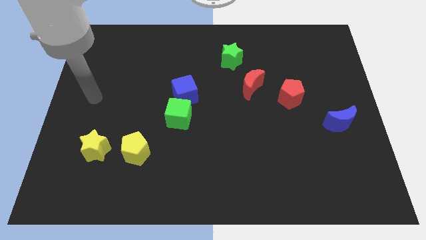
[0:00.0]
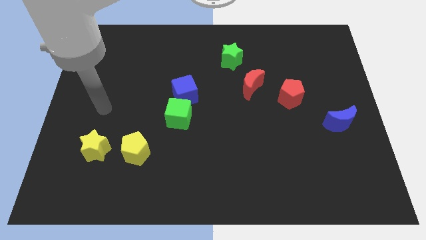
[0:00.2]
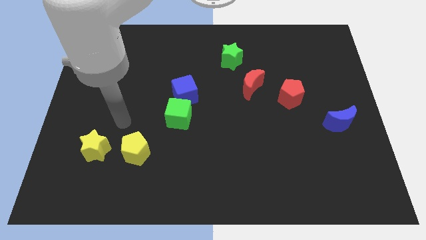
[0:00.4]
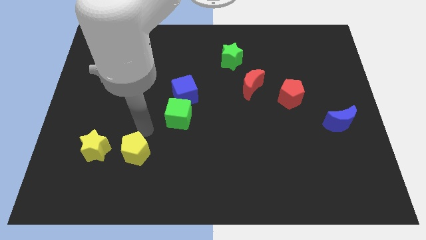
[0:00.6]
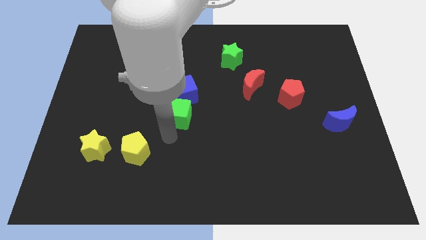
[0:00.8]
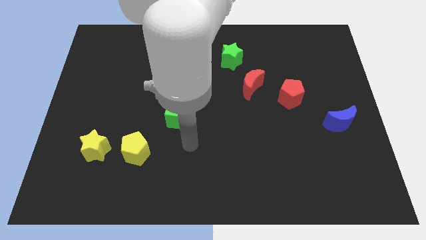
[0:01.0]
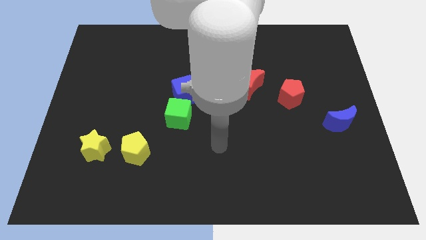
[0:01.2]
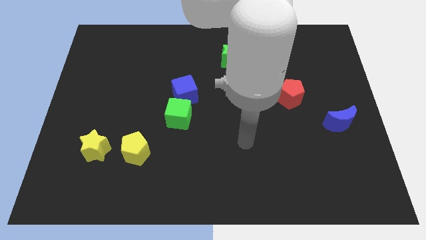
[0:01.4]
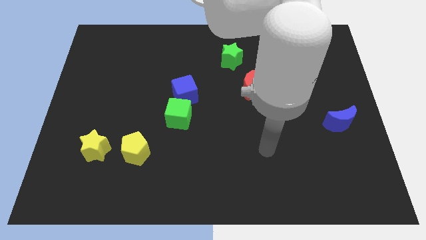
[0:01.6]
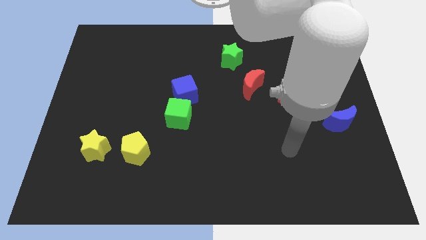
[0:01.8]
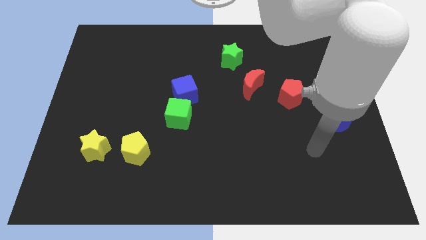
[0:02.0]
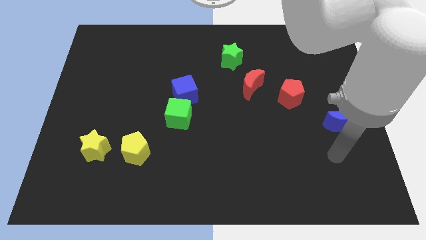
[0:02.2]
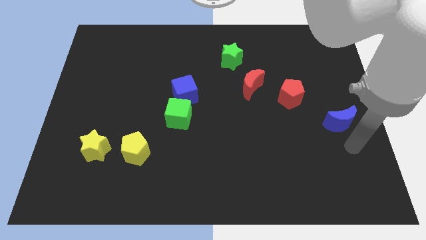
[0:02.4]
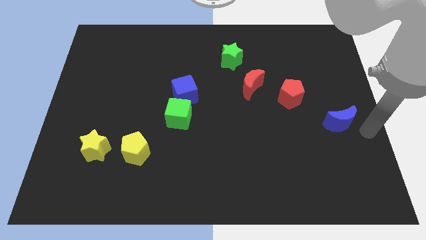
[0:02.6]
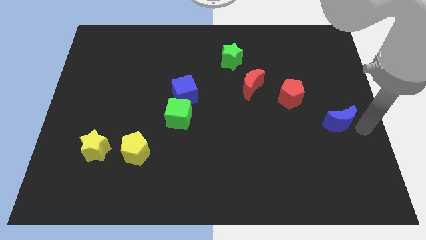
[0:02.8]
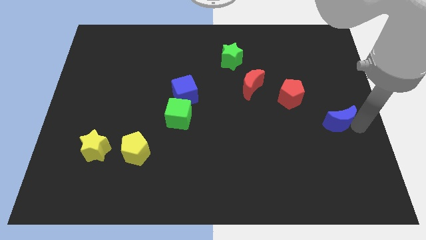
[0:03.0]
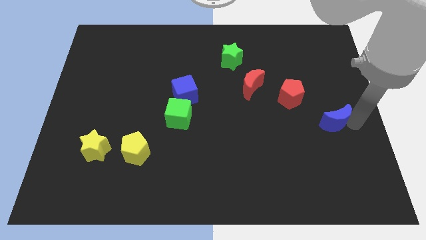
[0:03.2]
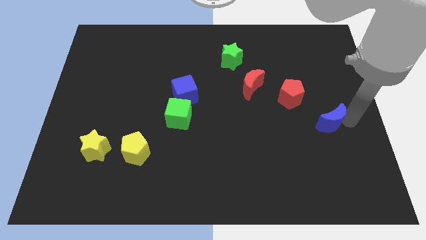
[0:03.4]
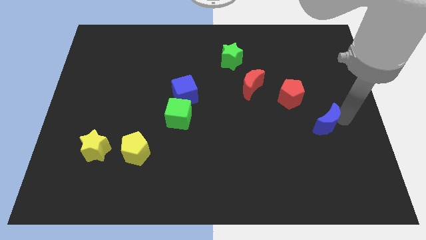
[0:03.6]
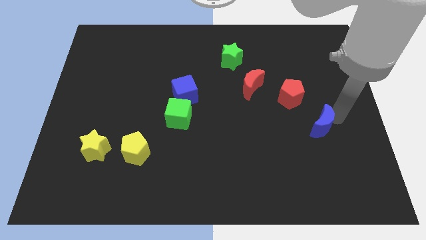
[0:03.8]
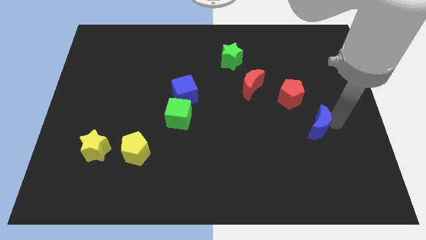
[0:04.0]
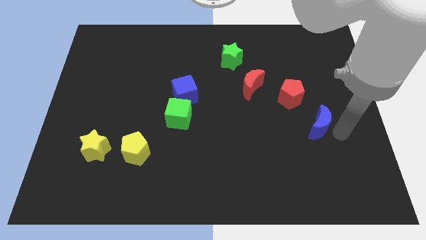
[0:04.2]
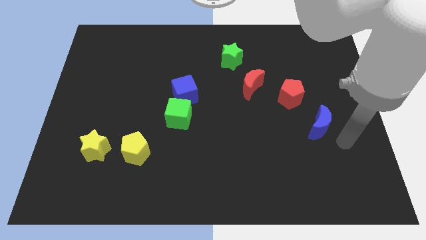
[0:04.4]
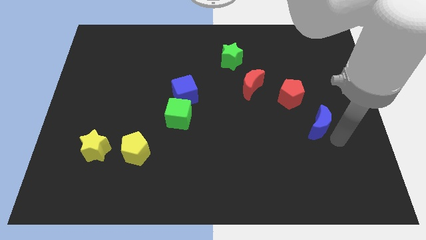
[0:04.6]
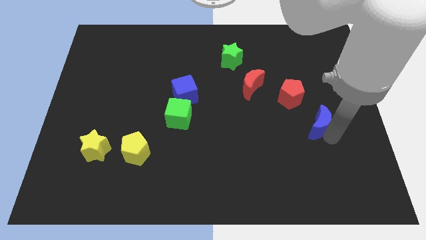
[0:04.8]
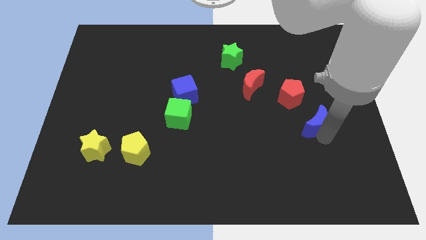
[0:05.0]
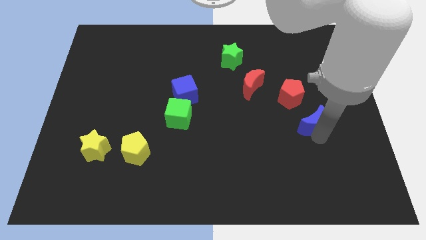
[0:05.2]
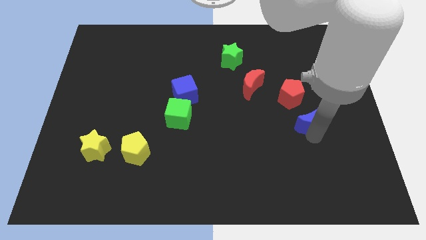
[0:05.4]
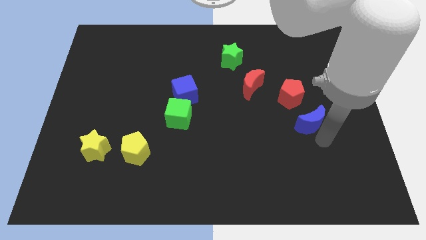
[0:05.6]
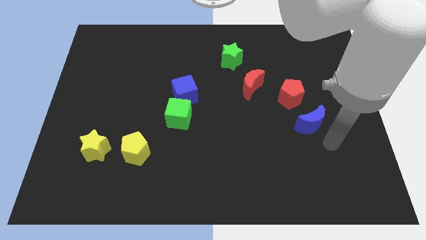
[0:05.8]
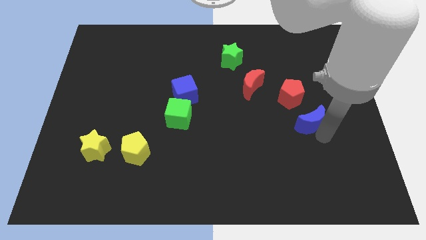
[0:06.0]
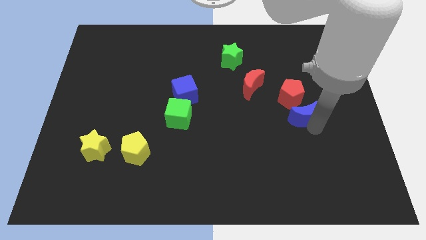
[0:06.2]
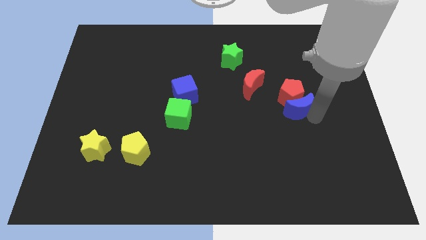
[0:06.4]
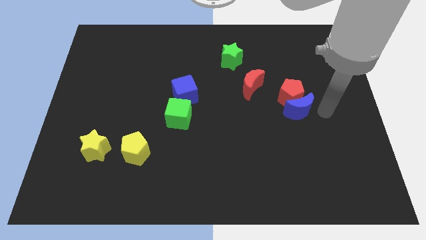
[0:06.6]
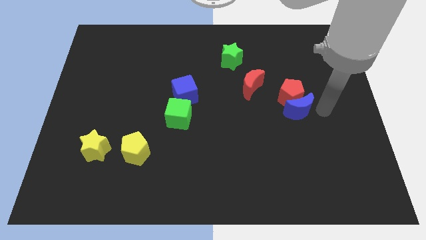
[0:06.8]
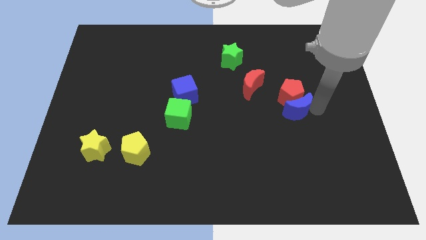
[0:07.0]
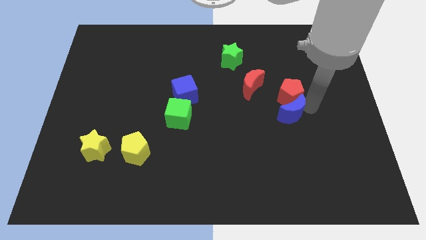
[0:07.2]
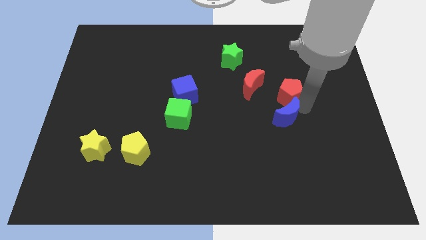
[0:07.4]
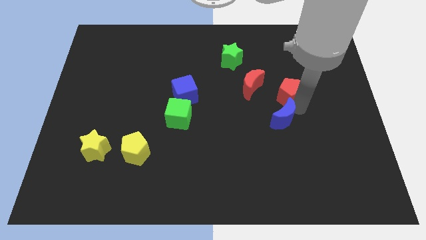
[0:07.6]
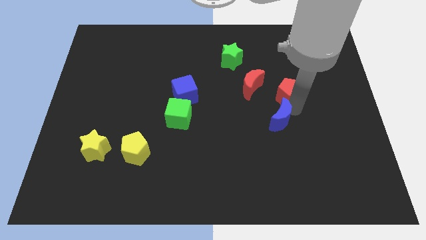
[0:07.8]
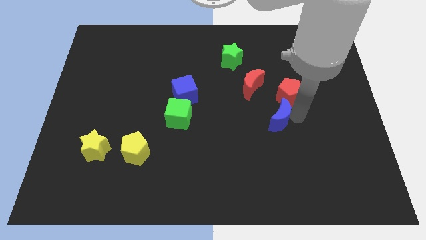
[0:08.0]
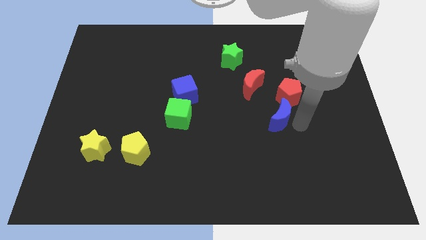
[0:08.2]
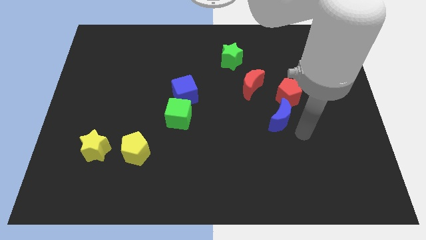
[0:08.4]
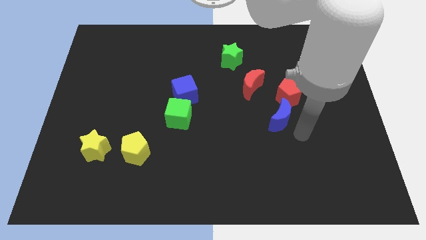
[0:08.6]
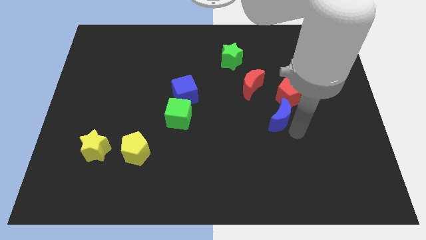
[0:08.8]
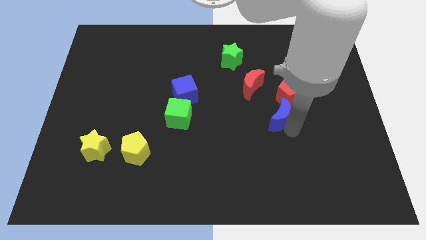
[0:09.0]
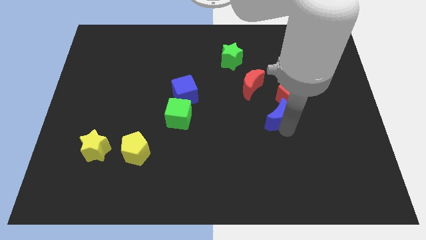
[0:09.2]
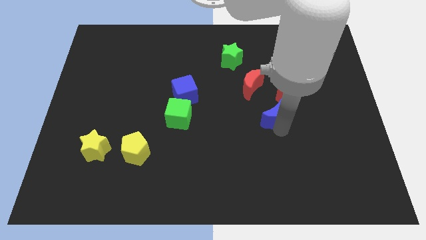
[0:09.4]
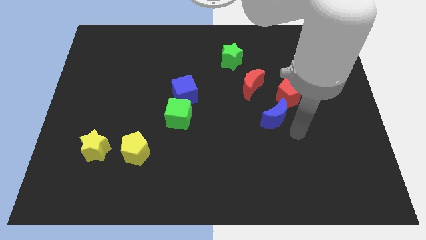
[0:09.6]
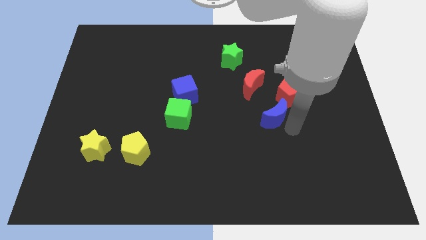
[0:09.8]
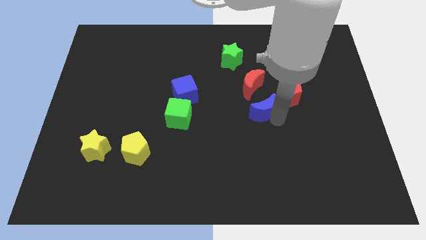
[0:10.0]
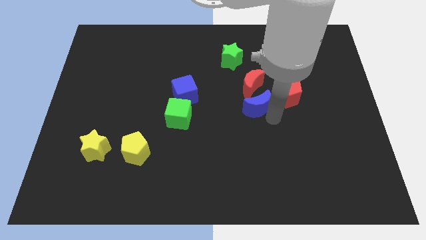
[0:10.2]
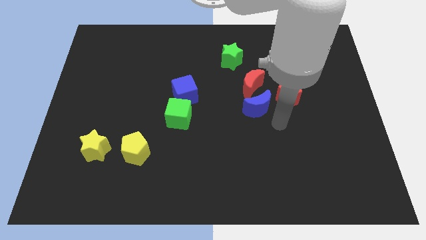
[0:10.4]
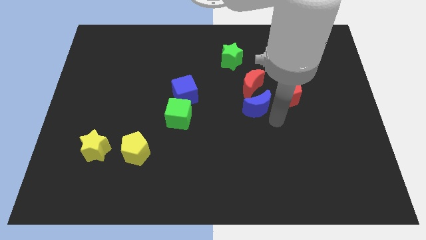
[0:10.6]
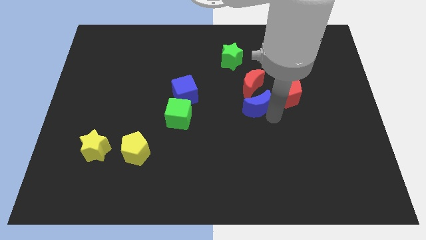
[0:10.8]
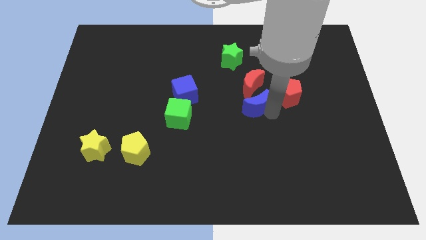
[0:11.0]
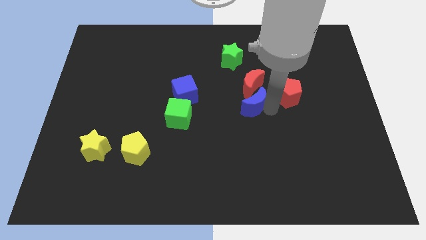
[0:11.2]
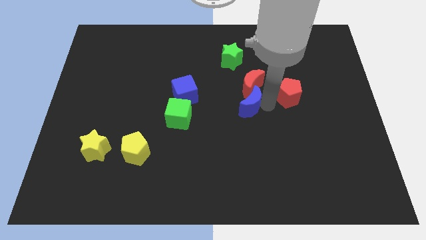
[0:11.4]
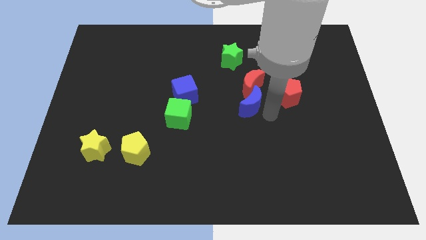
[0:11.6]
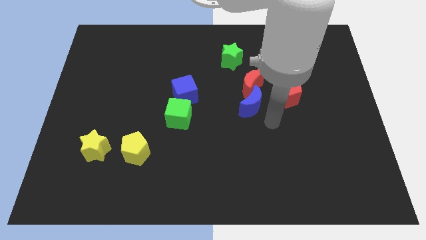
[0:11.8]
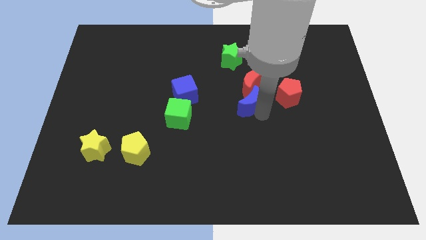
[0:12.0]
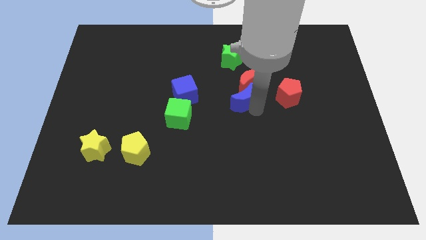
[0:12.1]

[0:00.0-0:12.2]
move the blue moon to the bottom side of the green star

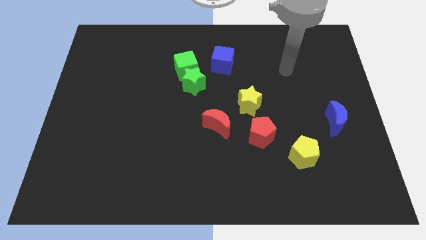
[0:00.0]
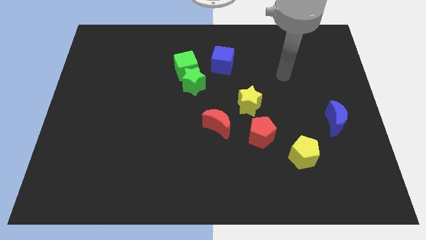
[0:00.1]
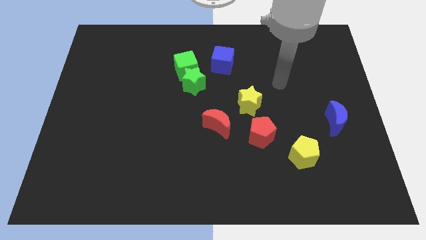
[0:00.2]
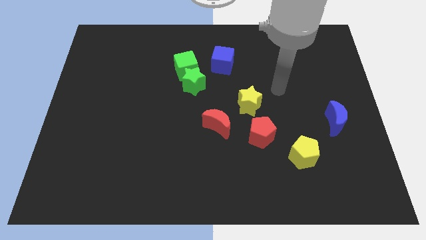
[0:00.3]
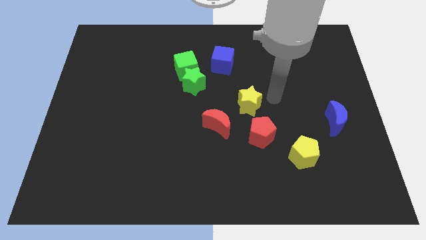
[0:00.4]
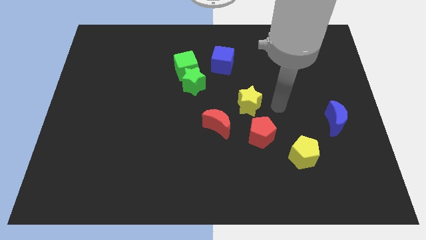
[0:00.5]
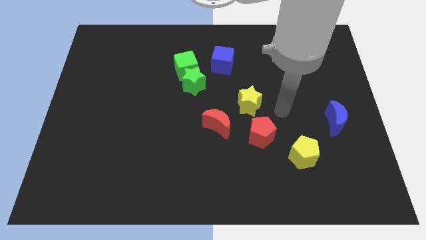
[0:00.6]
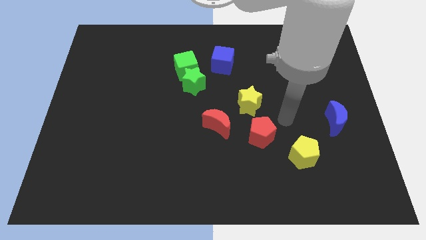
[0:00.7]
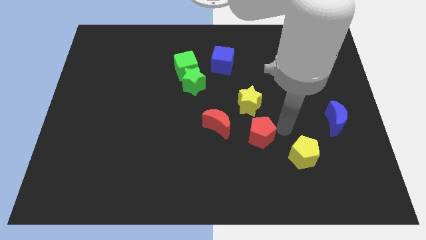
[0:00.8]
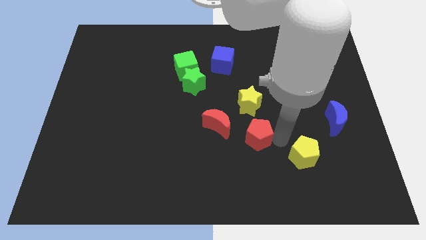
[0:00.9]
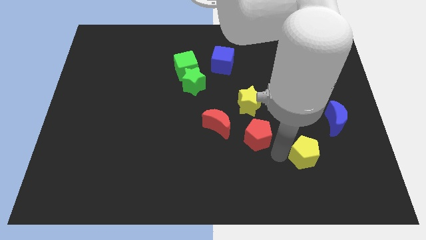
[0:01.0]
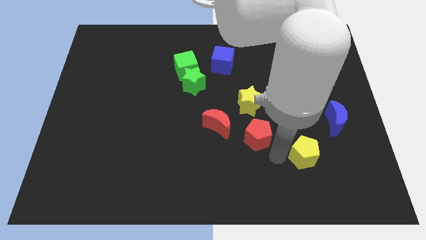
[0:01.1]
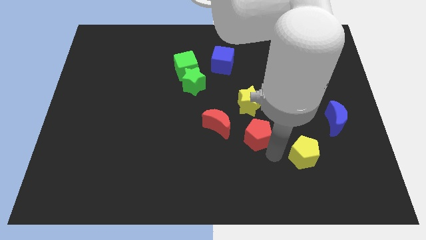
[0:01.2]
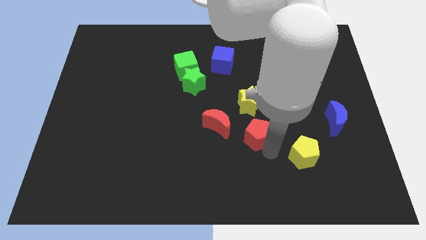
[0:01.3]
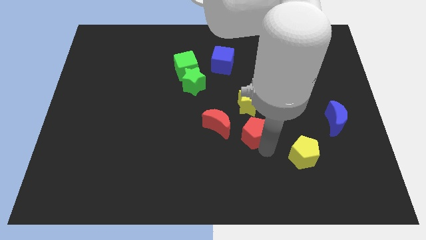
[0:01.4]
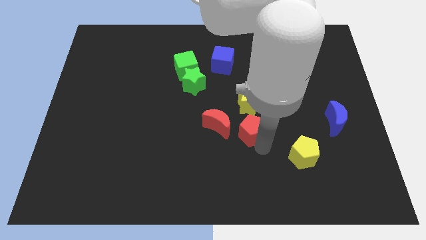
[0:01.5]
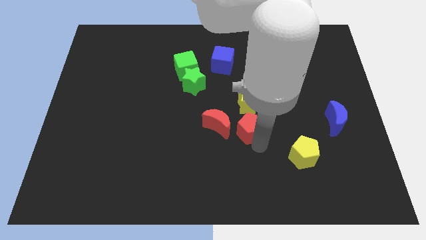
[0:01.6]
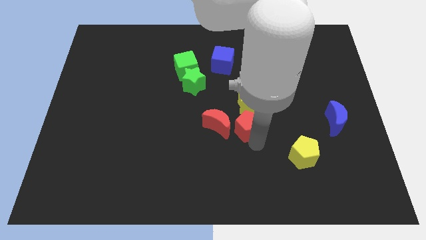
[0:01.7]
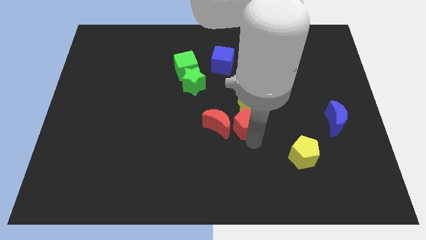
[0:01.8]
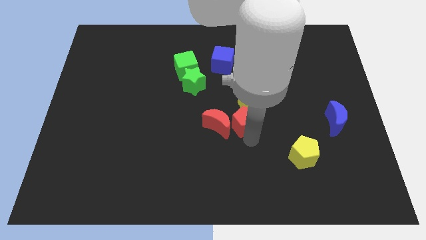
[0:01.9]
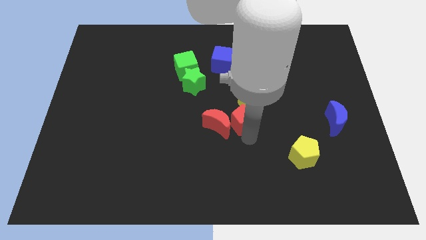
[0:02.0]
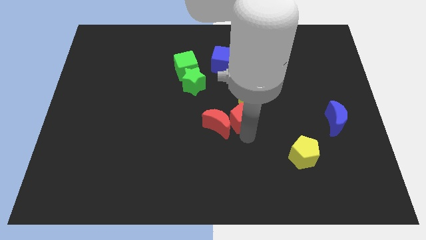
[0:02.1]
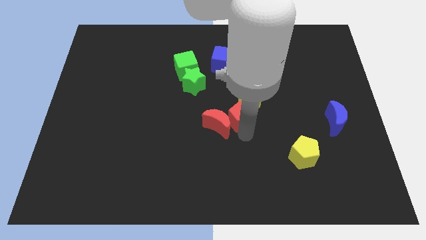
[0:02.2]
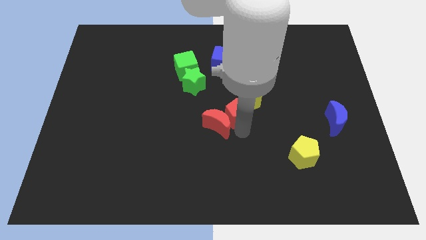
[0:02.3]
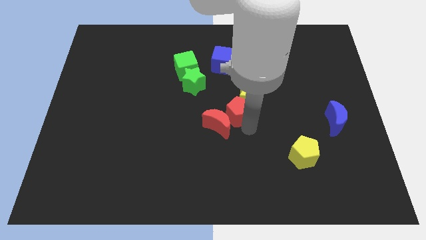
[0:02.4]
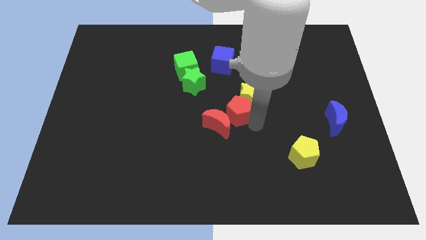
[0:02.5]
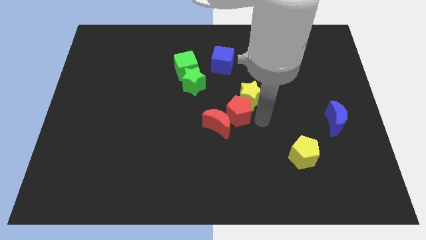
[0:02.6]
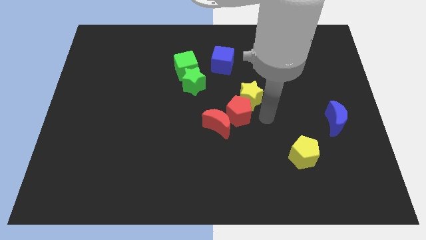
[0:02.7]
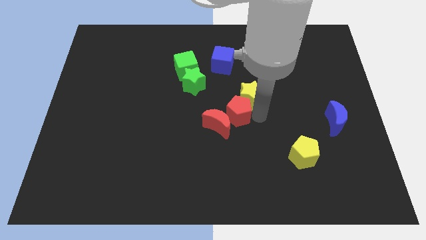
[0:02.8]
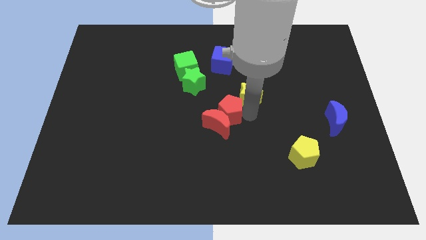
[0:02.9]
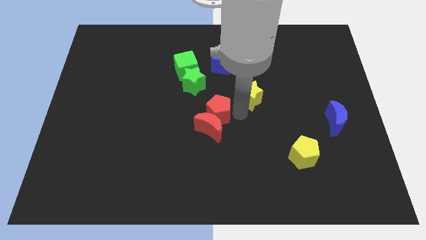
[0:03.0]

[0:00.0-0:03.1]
move the red pentagon diagonally up and to the left of the red moon
